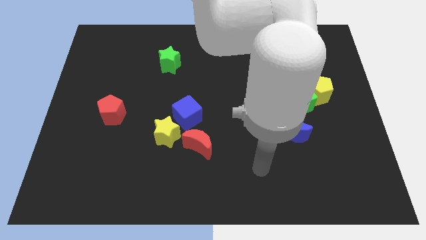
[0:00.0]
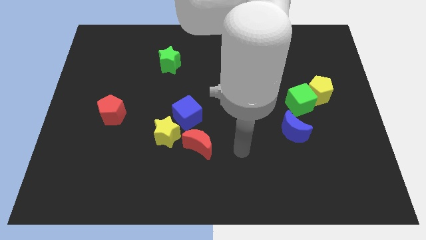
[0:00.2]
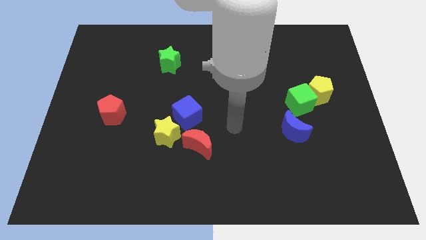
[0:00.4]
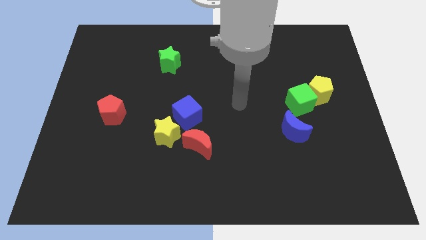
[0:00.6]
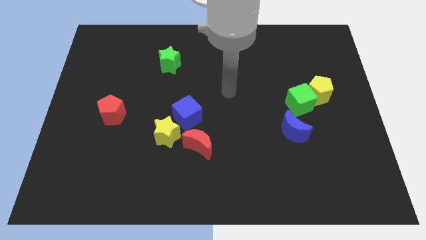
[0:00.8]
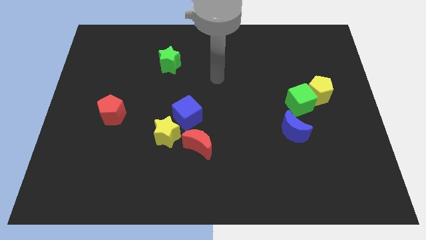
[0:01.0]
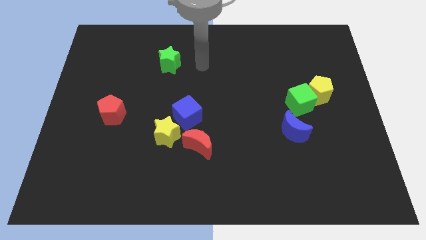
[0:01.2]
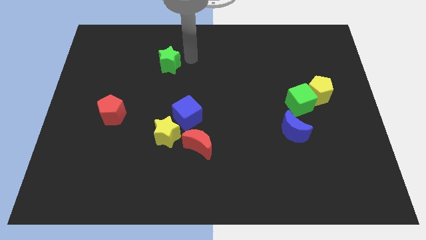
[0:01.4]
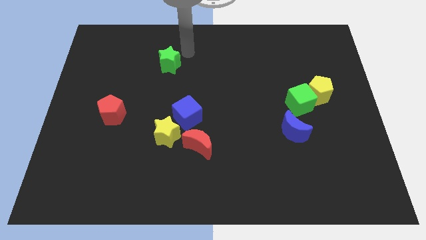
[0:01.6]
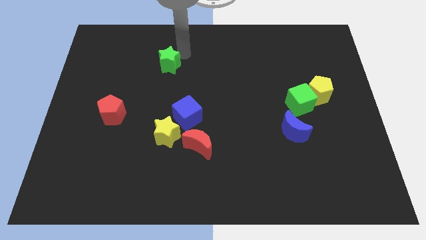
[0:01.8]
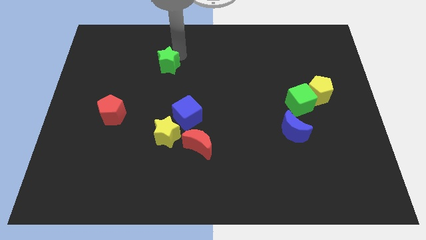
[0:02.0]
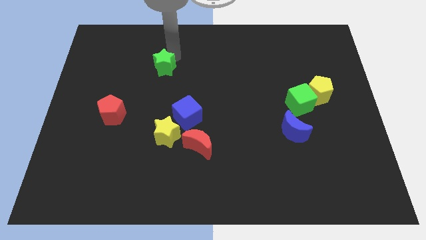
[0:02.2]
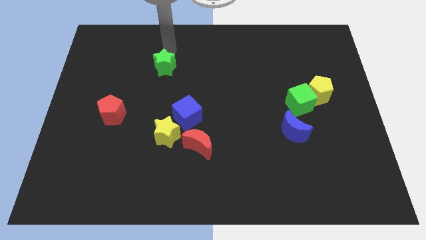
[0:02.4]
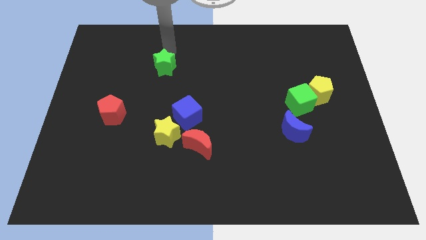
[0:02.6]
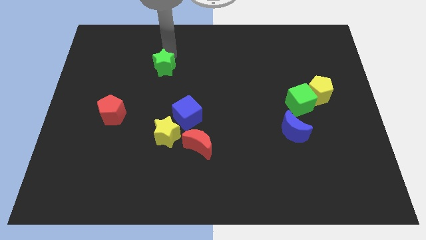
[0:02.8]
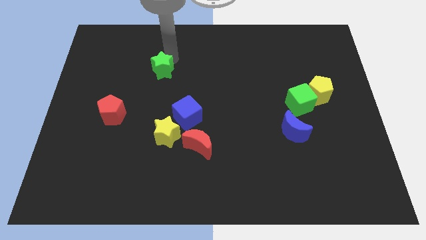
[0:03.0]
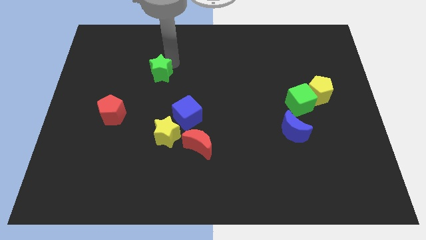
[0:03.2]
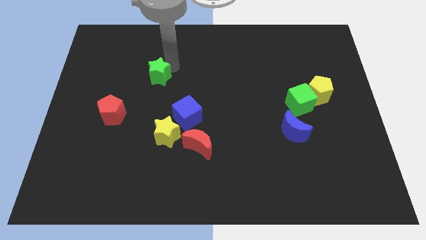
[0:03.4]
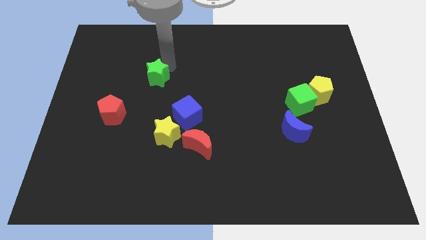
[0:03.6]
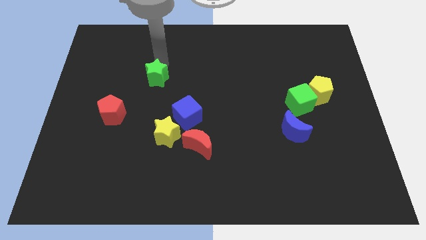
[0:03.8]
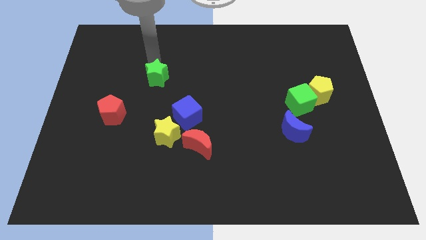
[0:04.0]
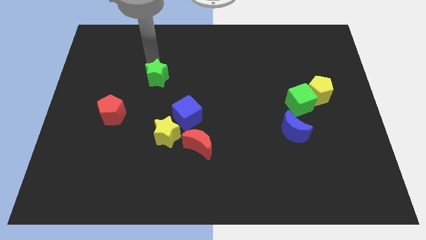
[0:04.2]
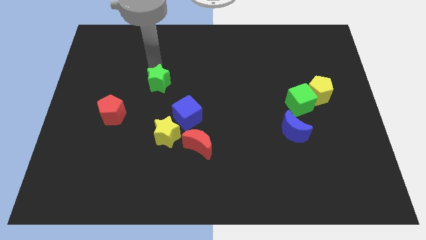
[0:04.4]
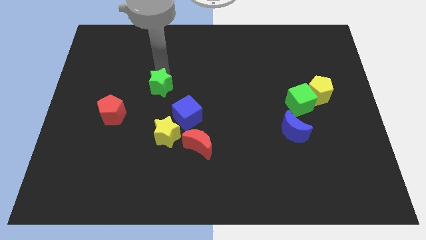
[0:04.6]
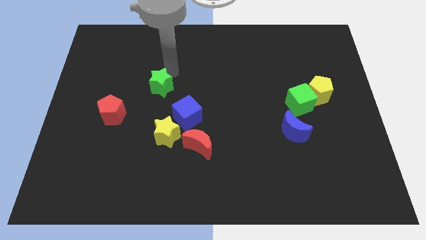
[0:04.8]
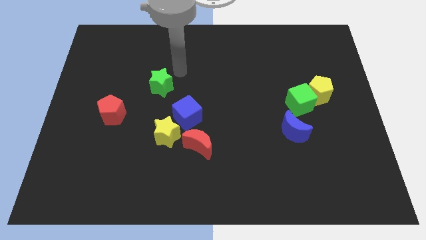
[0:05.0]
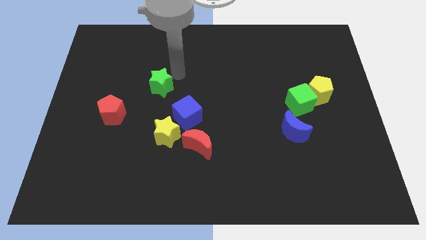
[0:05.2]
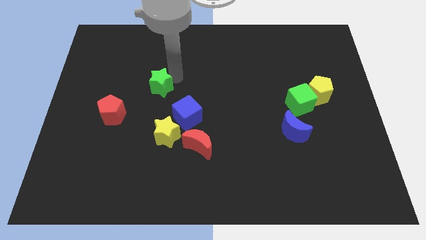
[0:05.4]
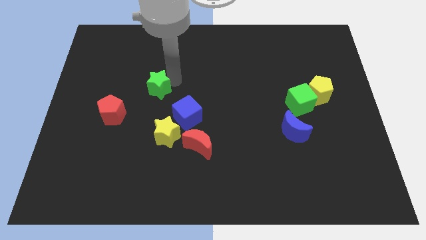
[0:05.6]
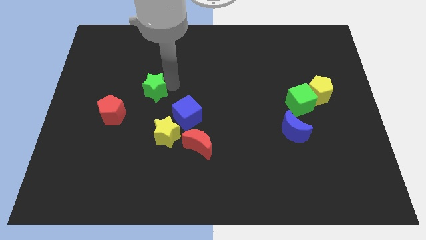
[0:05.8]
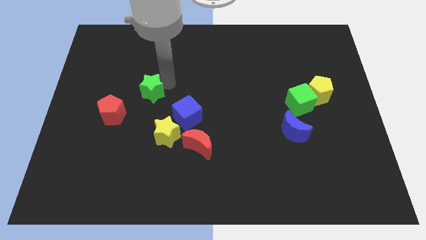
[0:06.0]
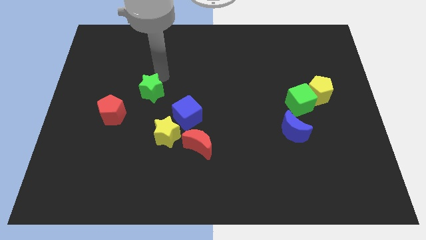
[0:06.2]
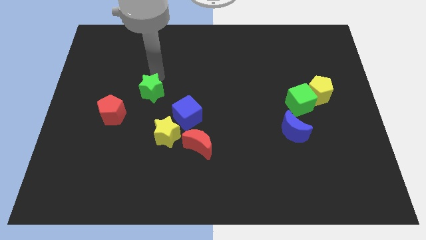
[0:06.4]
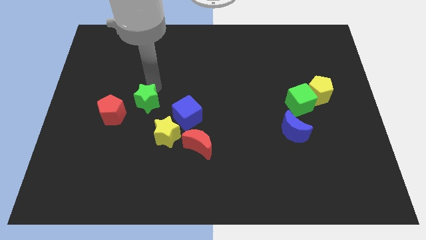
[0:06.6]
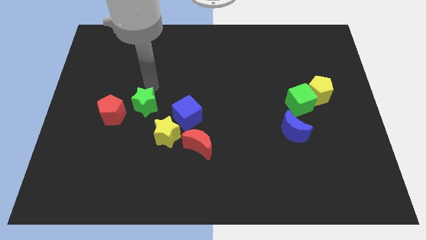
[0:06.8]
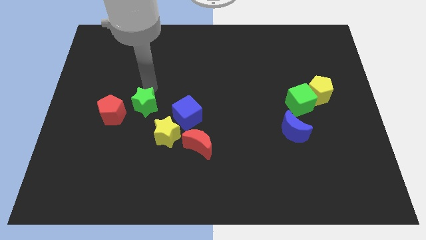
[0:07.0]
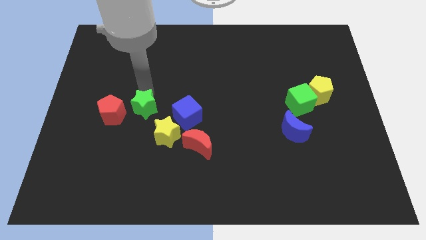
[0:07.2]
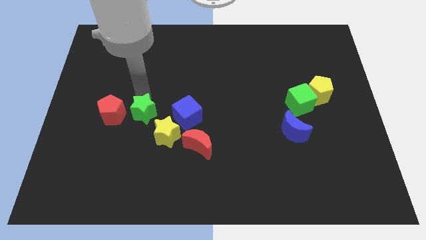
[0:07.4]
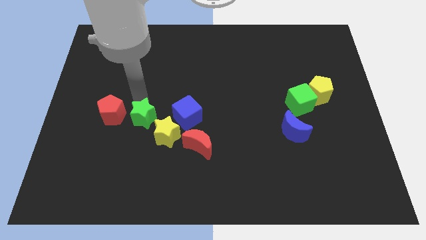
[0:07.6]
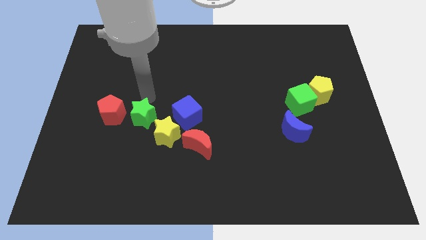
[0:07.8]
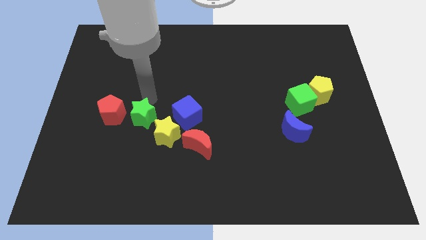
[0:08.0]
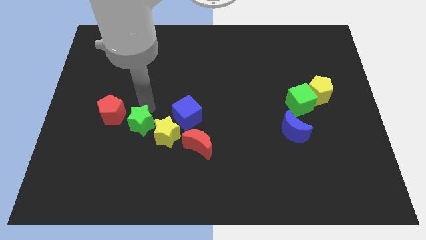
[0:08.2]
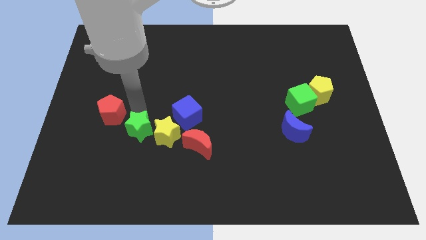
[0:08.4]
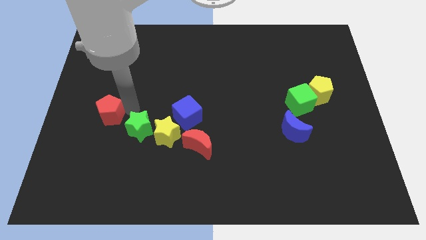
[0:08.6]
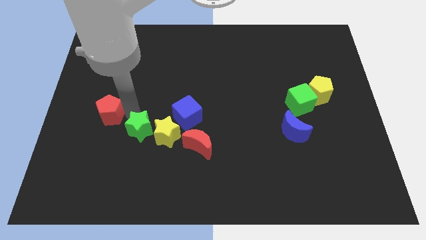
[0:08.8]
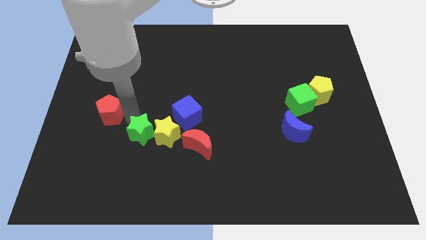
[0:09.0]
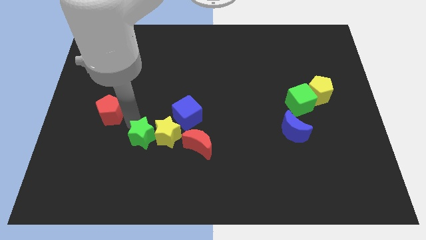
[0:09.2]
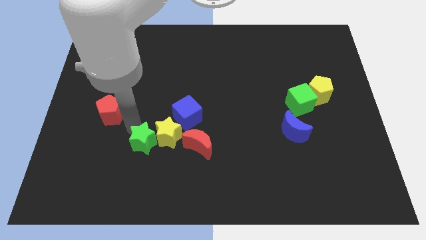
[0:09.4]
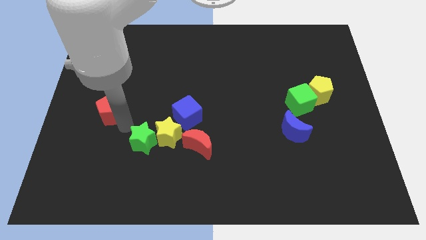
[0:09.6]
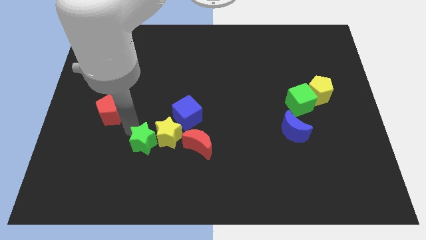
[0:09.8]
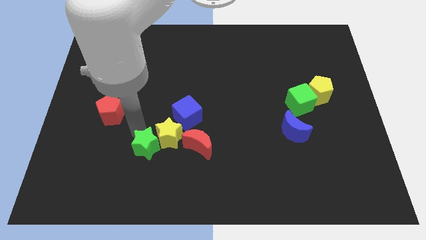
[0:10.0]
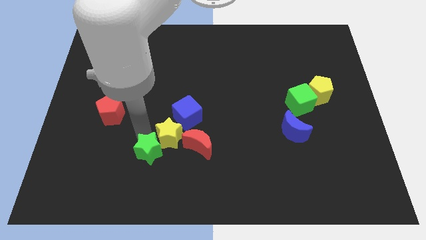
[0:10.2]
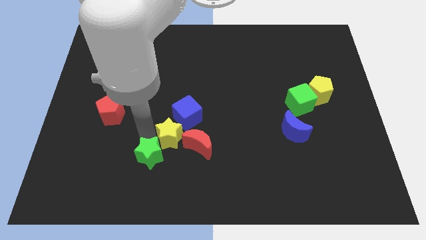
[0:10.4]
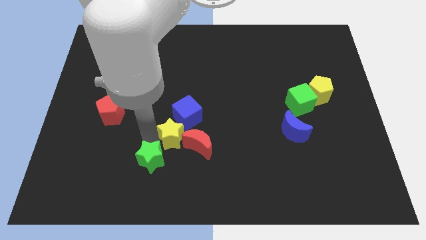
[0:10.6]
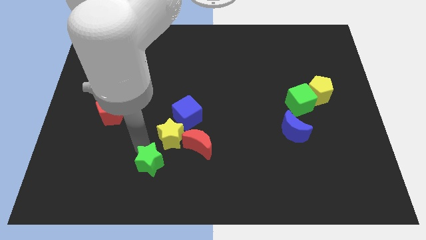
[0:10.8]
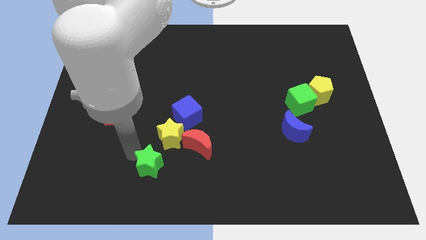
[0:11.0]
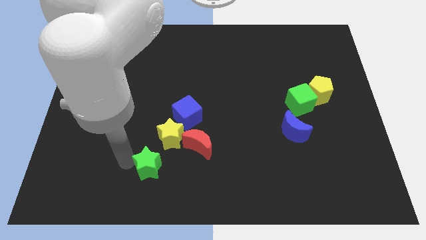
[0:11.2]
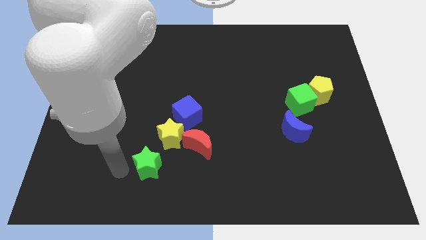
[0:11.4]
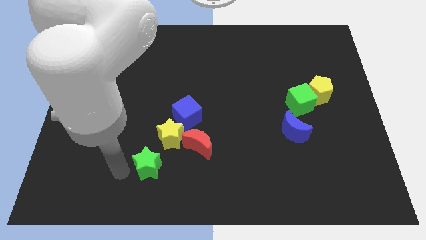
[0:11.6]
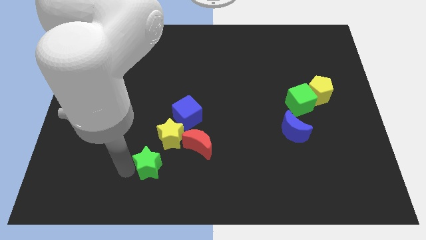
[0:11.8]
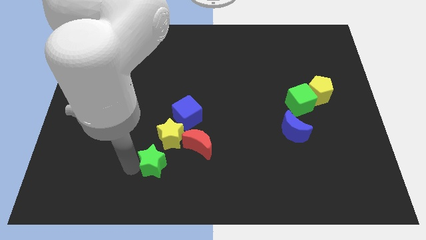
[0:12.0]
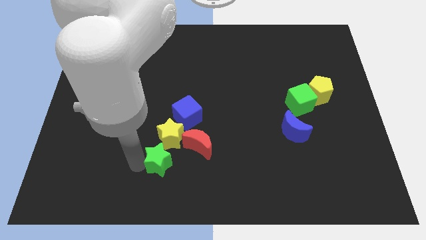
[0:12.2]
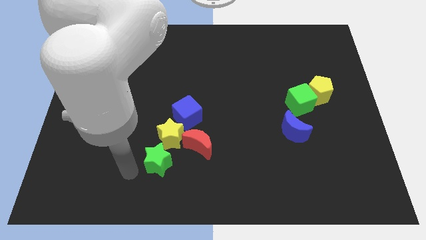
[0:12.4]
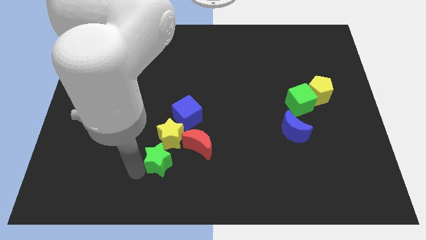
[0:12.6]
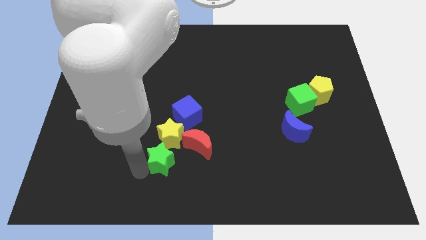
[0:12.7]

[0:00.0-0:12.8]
slide the green star to the bottom of the blue cube
